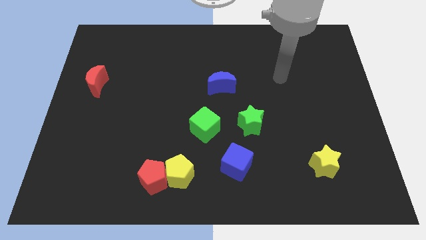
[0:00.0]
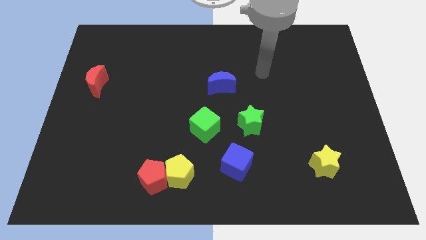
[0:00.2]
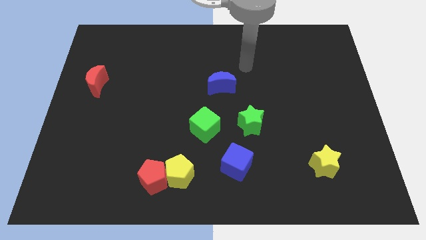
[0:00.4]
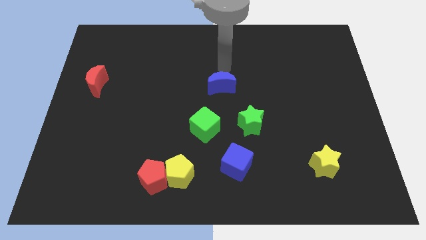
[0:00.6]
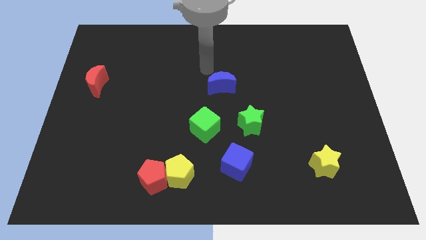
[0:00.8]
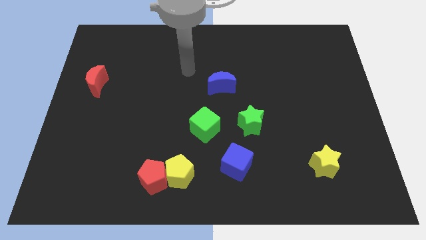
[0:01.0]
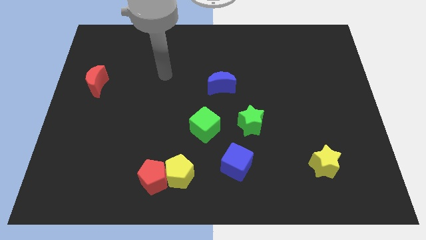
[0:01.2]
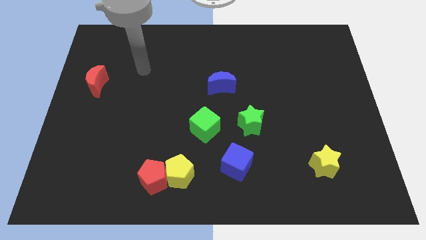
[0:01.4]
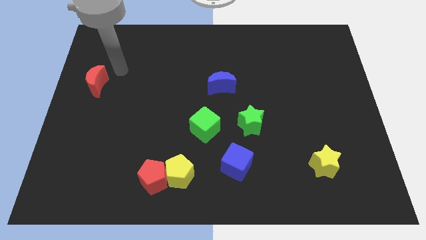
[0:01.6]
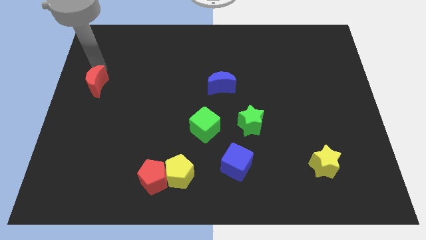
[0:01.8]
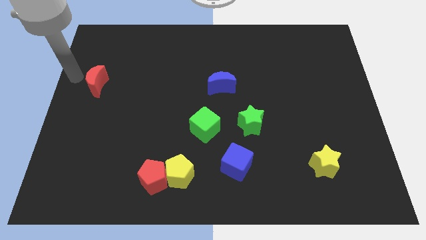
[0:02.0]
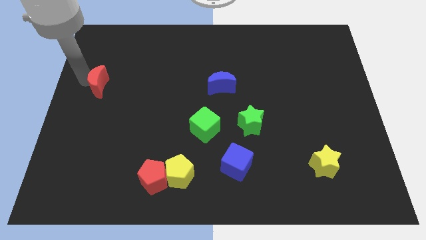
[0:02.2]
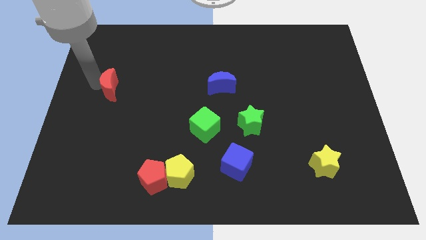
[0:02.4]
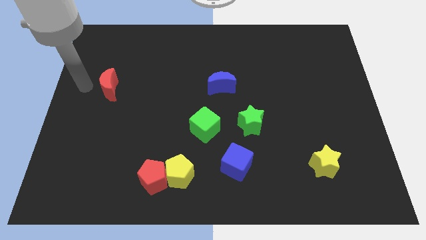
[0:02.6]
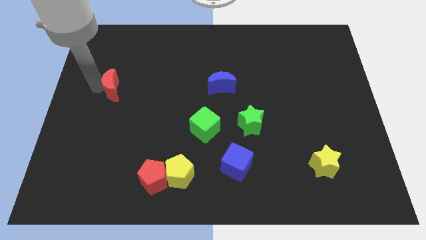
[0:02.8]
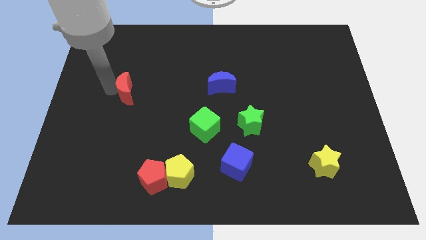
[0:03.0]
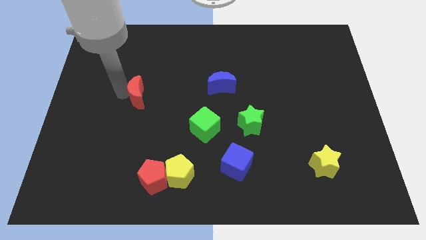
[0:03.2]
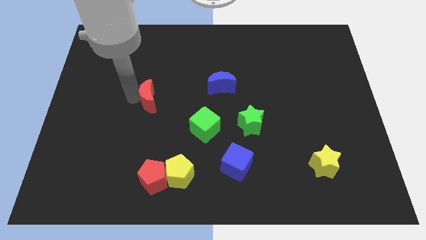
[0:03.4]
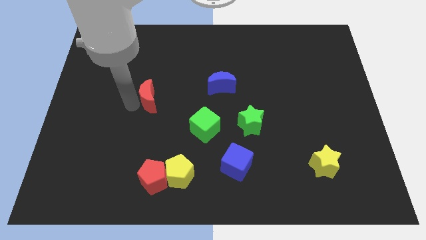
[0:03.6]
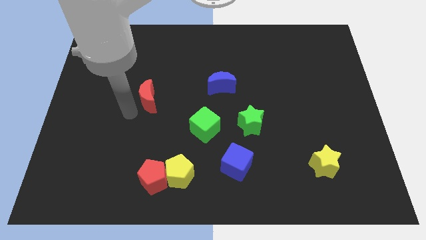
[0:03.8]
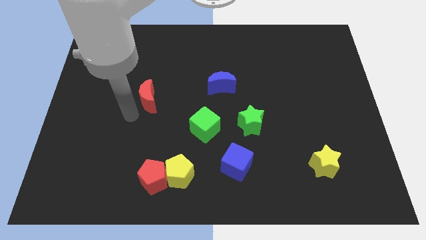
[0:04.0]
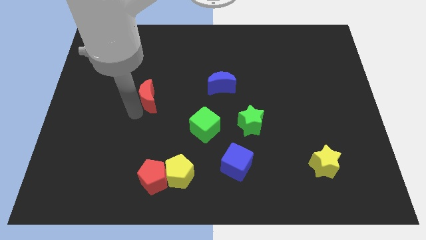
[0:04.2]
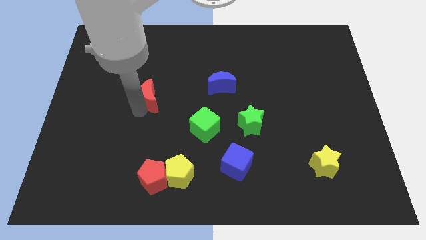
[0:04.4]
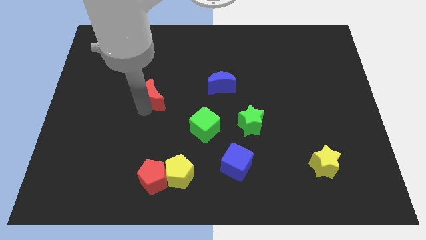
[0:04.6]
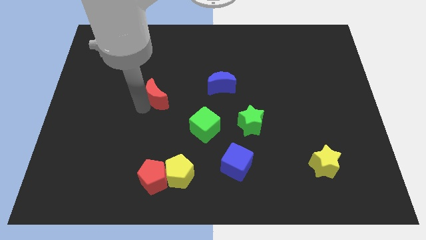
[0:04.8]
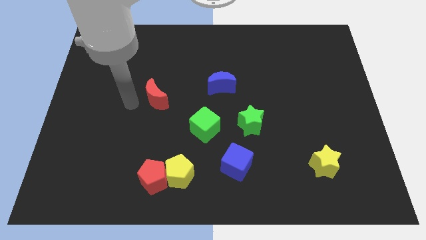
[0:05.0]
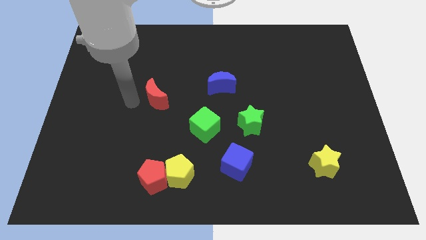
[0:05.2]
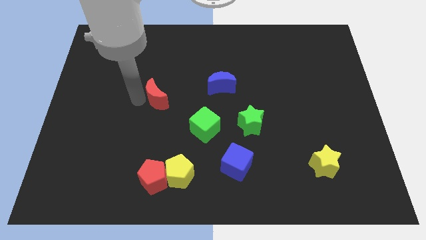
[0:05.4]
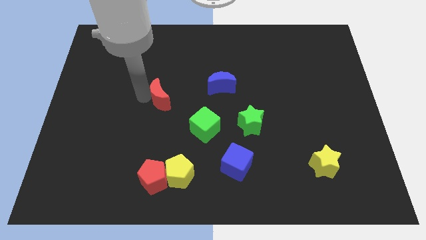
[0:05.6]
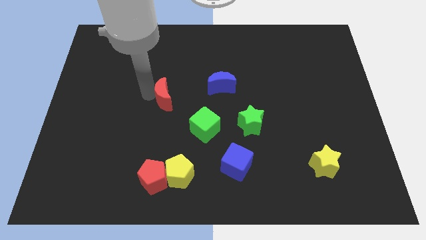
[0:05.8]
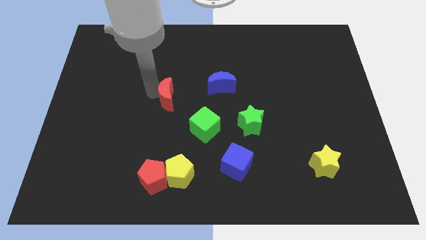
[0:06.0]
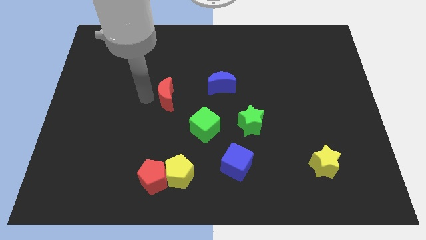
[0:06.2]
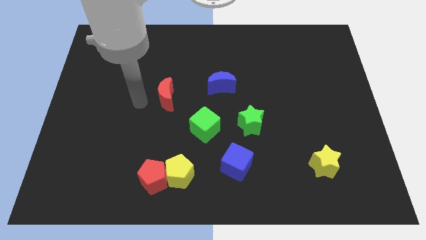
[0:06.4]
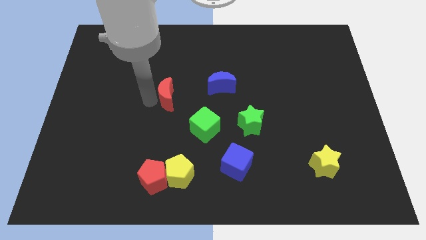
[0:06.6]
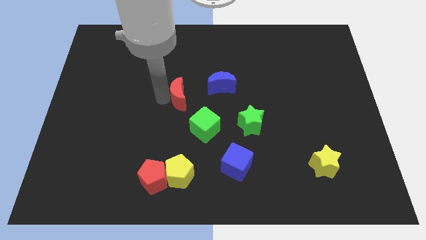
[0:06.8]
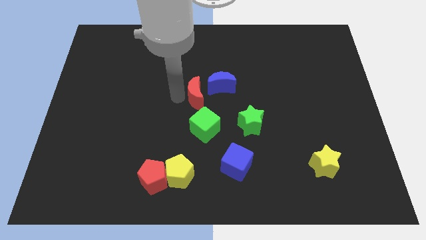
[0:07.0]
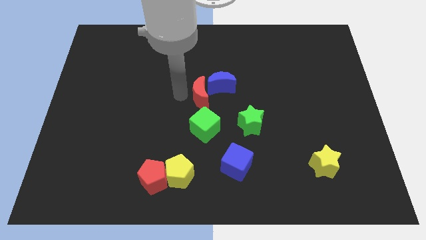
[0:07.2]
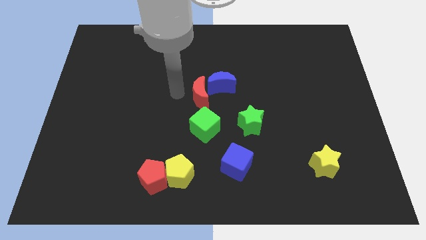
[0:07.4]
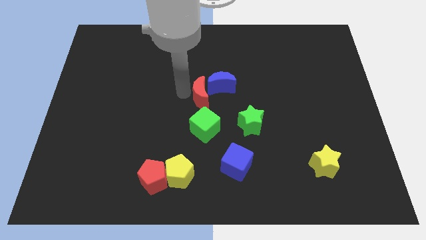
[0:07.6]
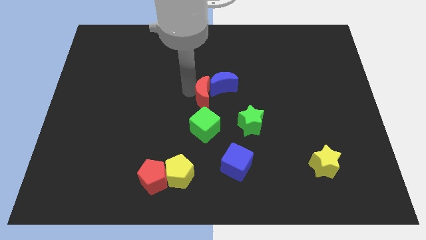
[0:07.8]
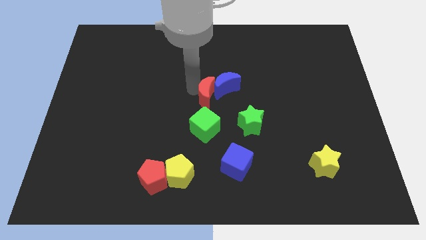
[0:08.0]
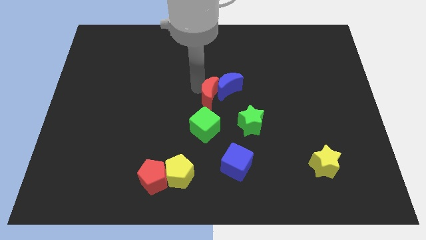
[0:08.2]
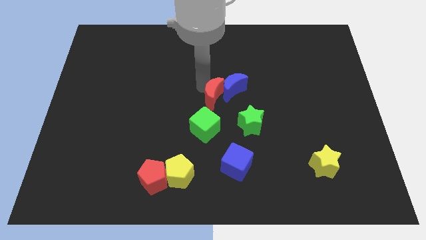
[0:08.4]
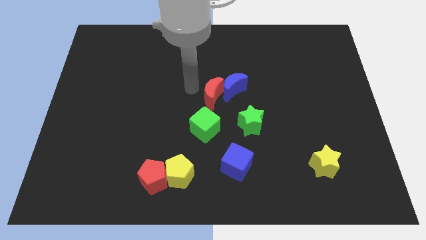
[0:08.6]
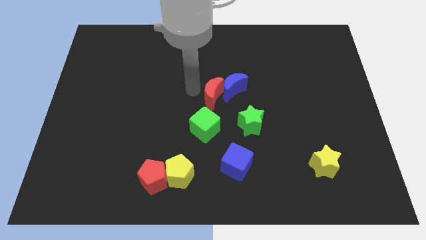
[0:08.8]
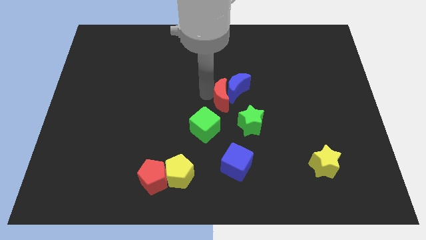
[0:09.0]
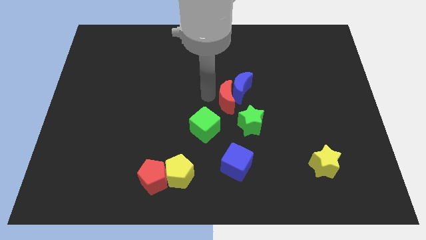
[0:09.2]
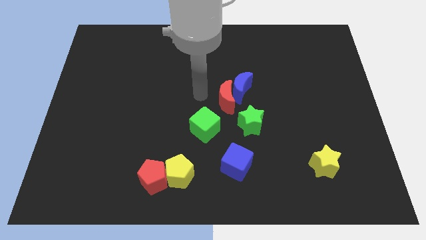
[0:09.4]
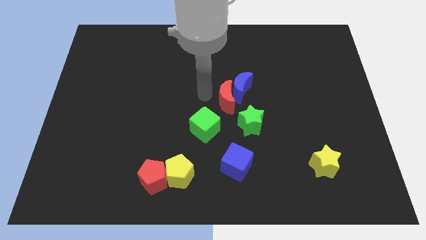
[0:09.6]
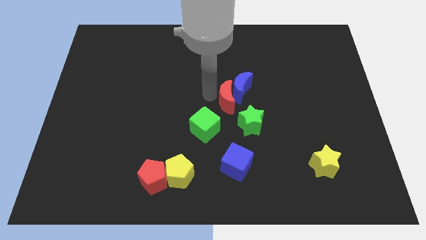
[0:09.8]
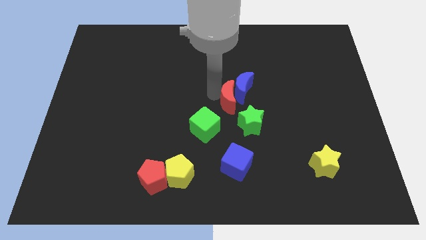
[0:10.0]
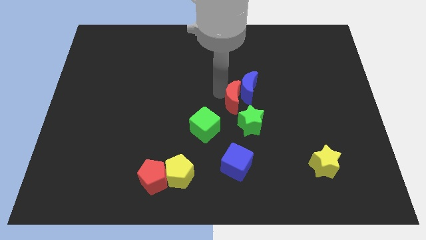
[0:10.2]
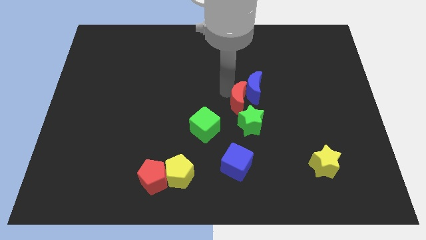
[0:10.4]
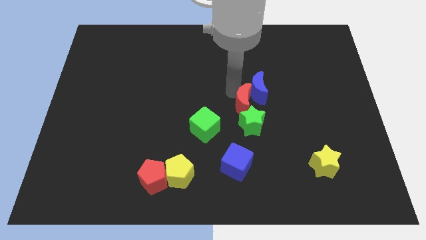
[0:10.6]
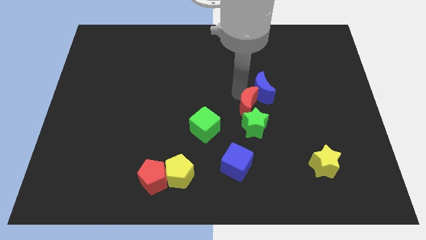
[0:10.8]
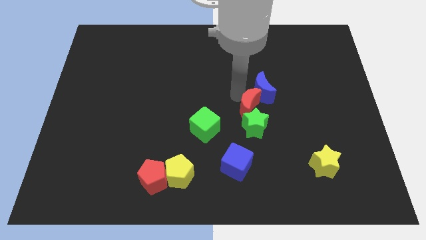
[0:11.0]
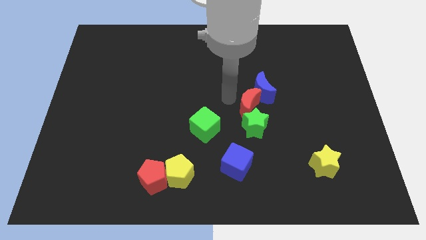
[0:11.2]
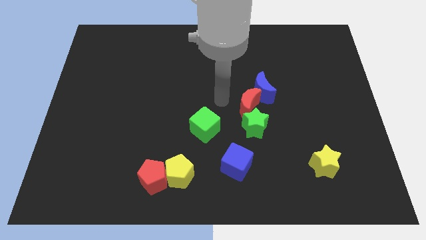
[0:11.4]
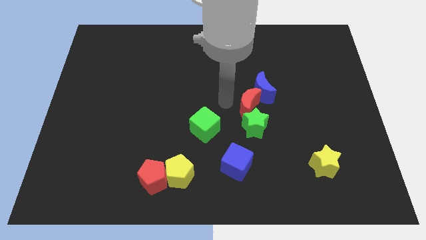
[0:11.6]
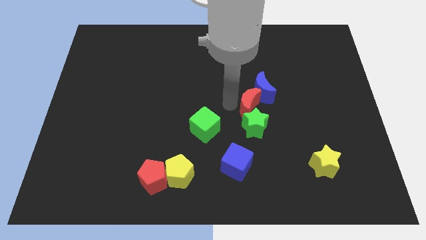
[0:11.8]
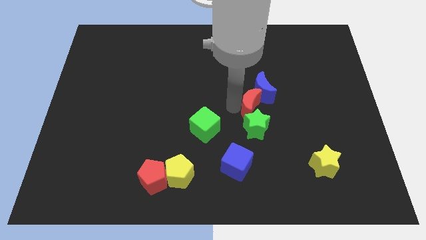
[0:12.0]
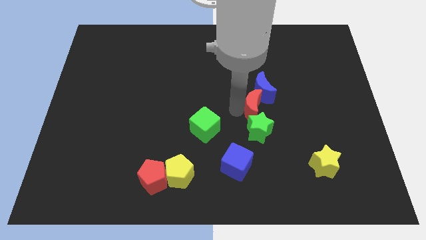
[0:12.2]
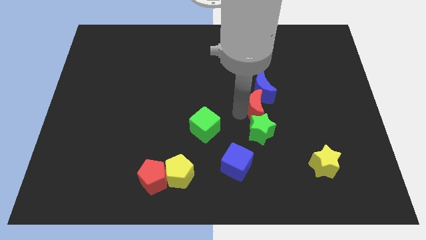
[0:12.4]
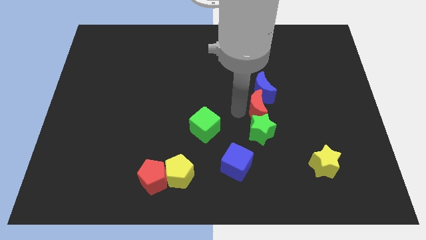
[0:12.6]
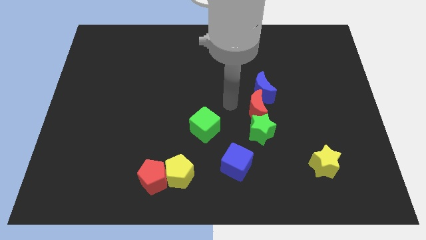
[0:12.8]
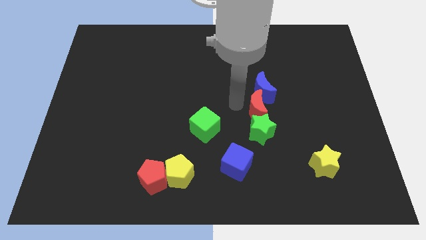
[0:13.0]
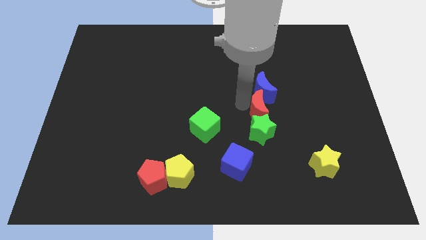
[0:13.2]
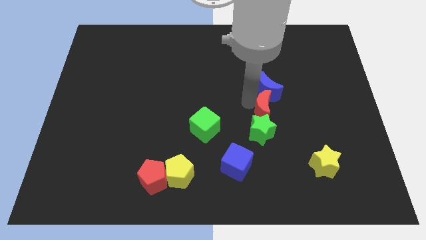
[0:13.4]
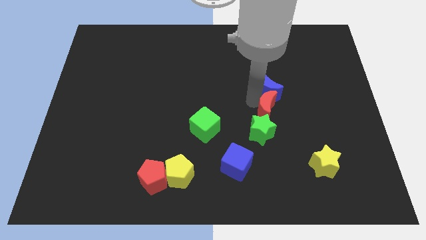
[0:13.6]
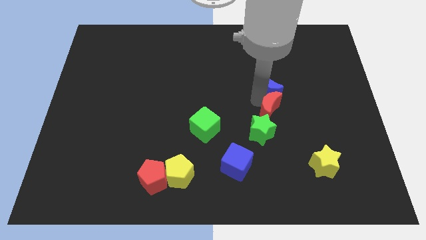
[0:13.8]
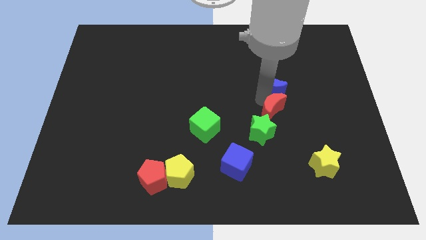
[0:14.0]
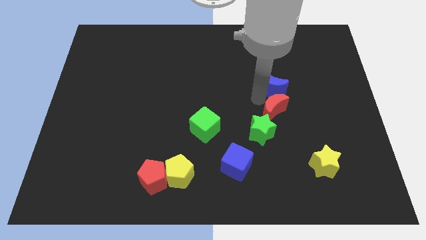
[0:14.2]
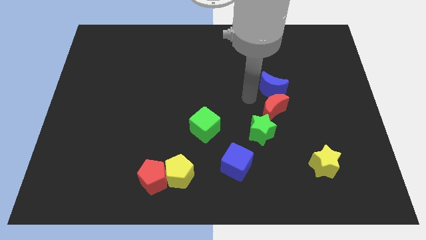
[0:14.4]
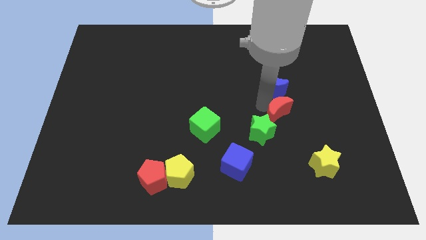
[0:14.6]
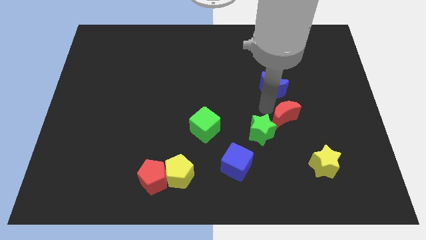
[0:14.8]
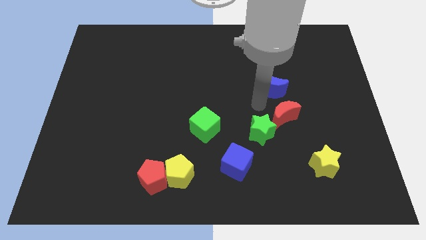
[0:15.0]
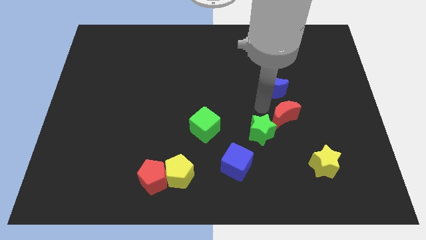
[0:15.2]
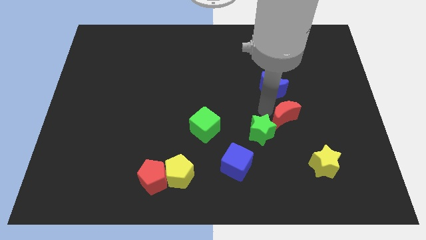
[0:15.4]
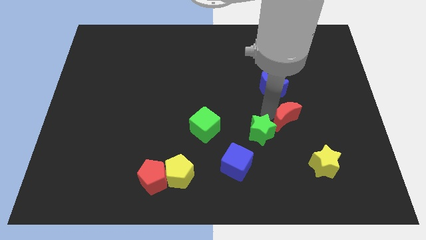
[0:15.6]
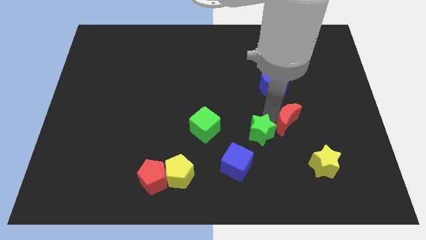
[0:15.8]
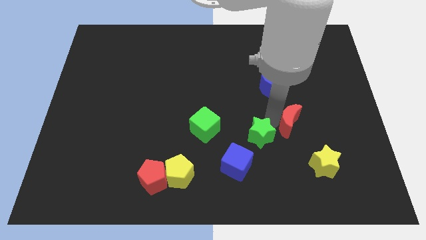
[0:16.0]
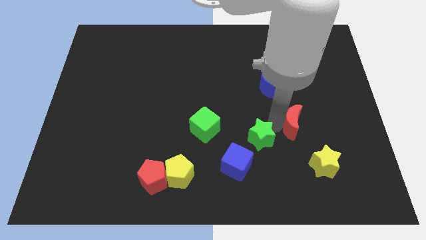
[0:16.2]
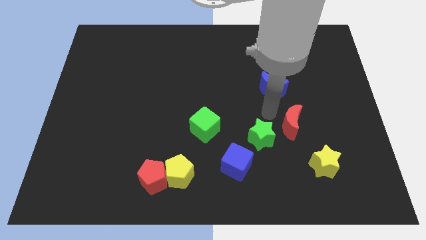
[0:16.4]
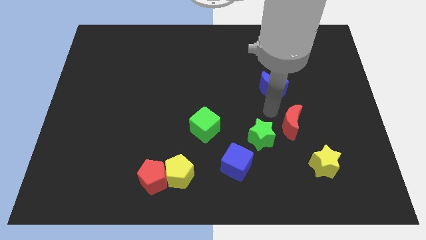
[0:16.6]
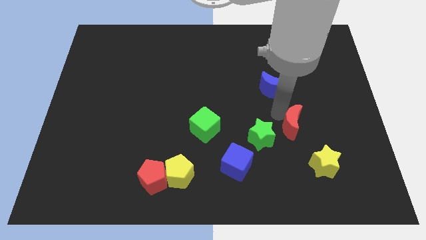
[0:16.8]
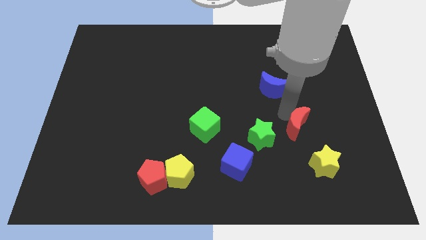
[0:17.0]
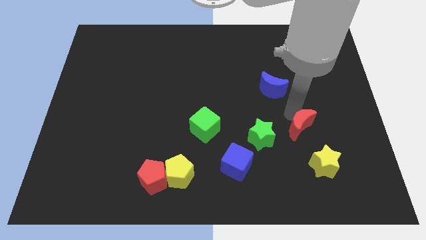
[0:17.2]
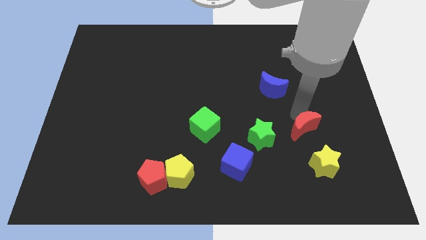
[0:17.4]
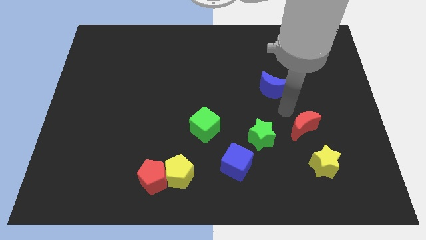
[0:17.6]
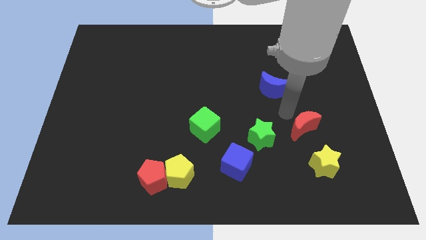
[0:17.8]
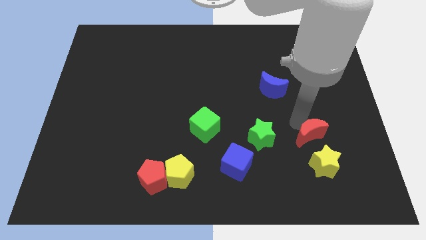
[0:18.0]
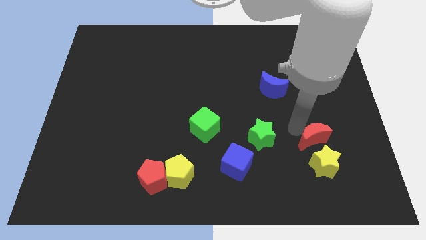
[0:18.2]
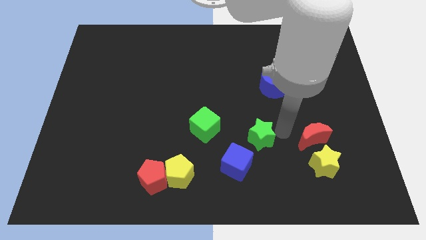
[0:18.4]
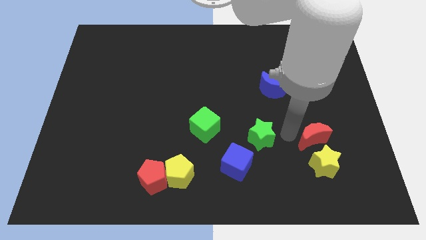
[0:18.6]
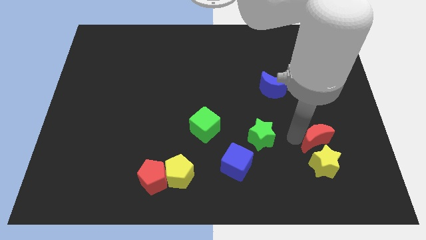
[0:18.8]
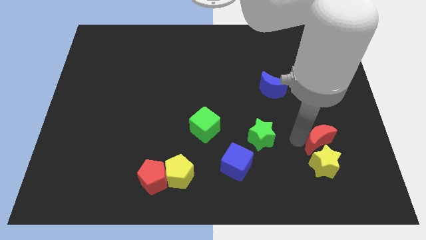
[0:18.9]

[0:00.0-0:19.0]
put the red moon to the top right side of the yellow star
